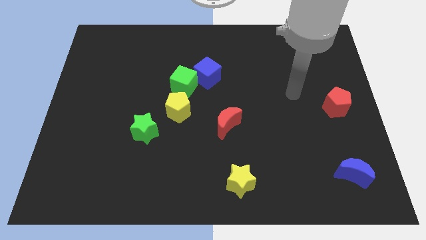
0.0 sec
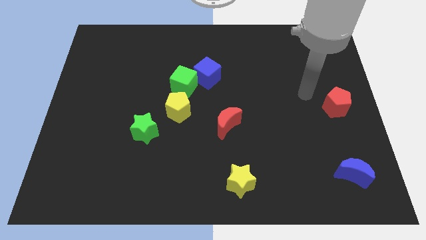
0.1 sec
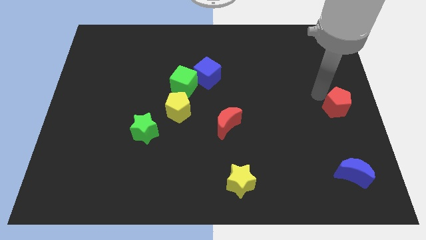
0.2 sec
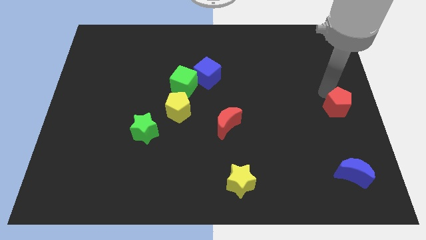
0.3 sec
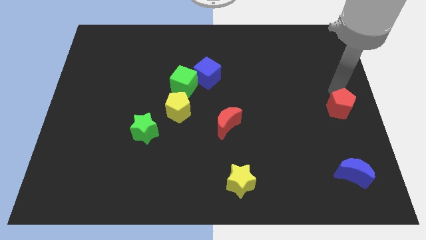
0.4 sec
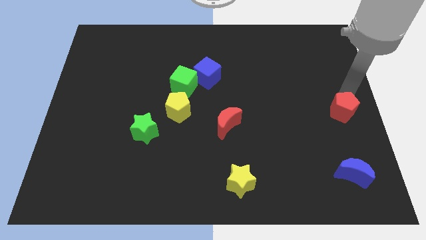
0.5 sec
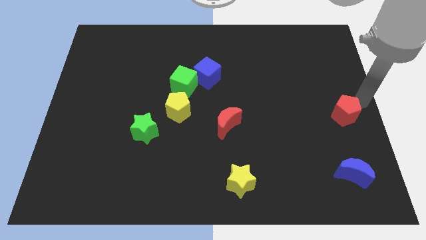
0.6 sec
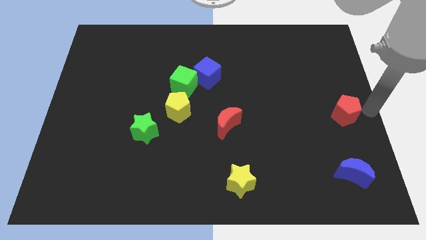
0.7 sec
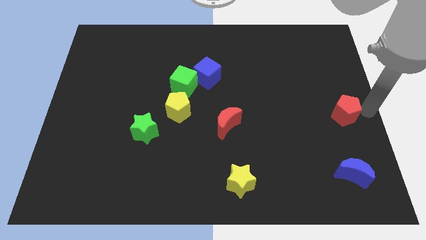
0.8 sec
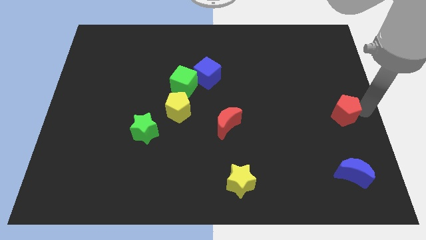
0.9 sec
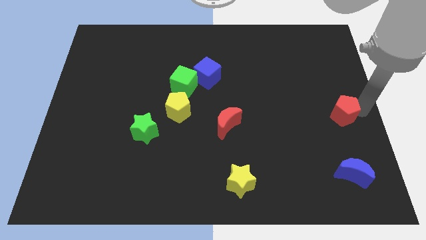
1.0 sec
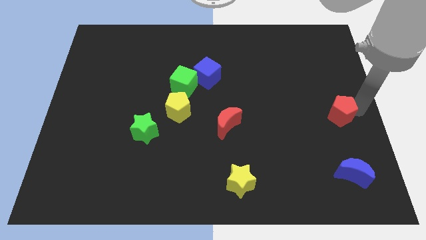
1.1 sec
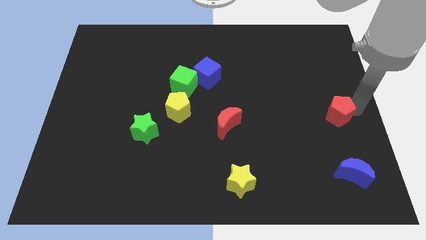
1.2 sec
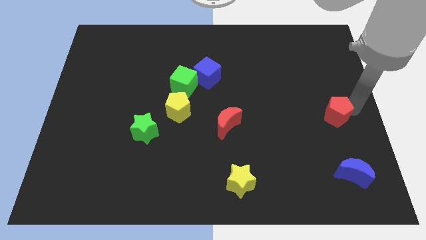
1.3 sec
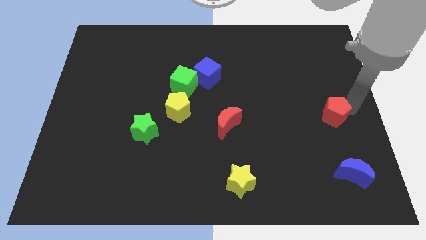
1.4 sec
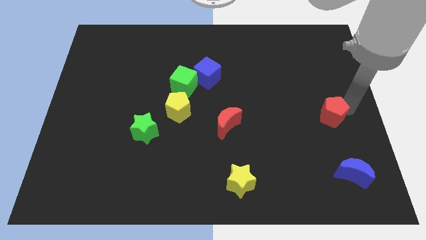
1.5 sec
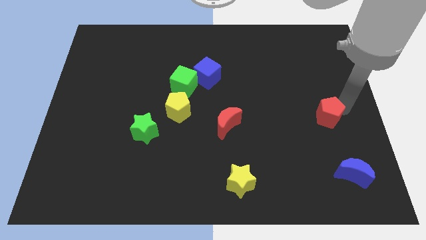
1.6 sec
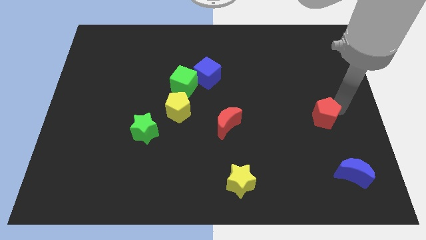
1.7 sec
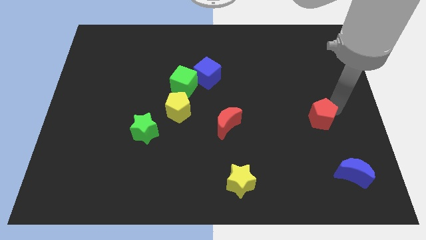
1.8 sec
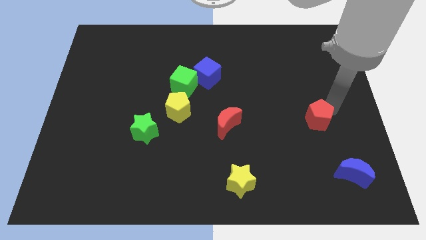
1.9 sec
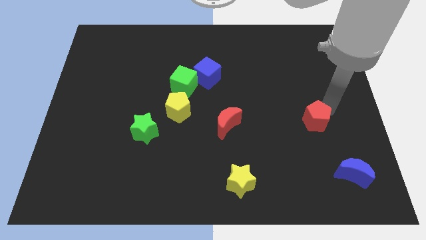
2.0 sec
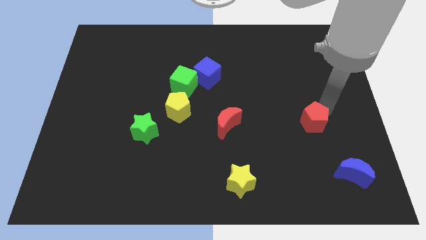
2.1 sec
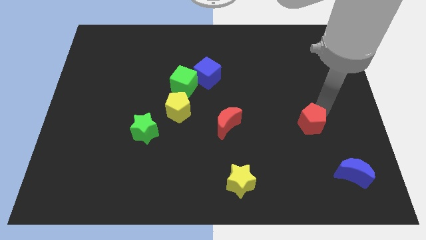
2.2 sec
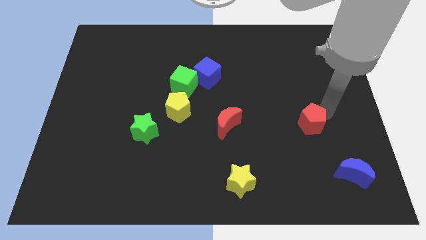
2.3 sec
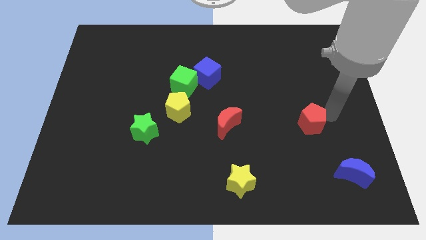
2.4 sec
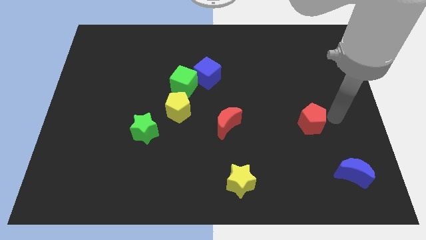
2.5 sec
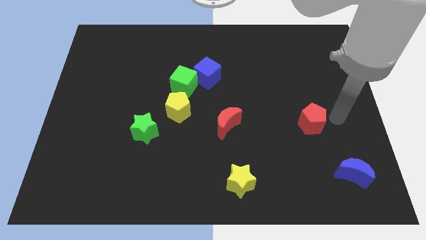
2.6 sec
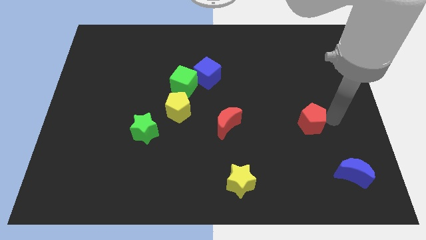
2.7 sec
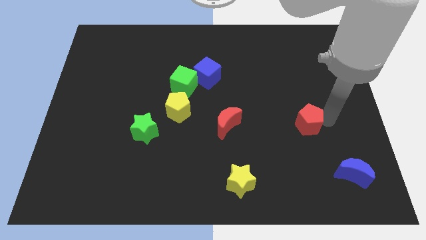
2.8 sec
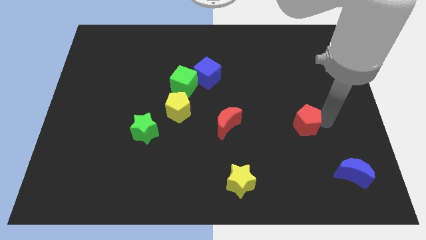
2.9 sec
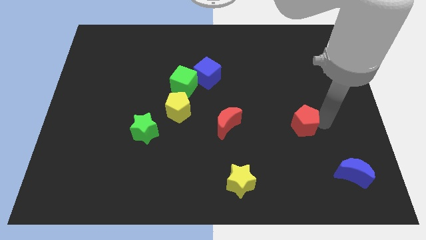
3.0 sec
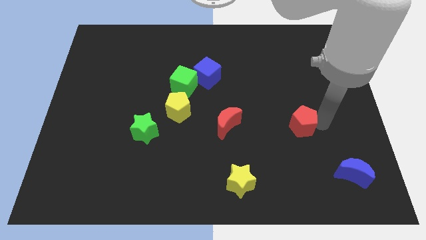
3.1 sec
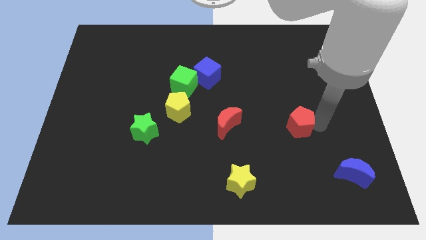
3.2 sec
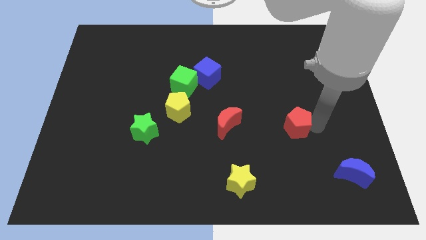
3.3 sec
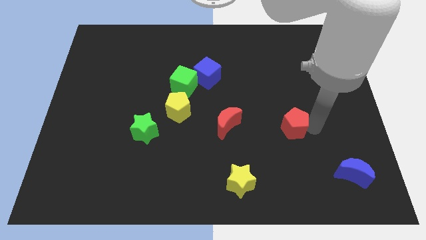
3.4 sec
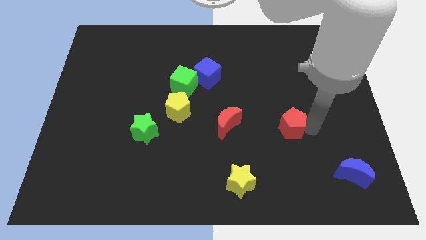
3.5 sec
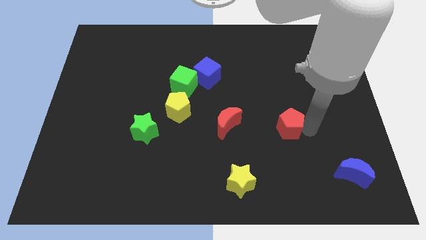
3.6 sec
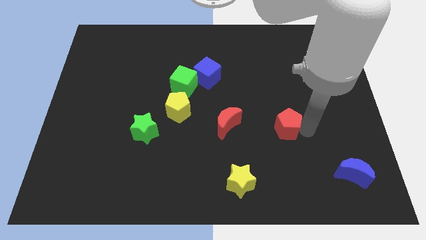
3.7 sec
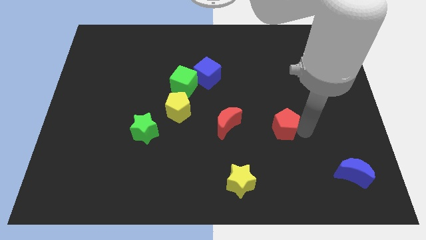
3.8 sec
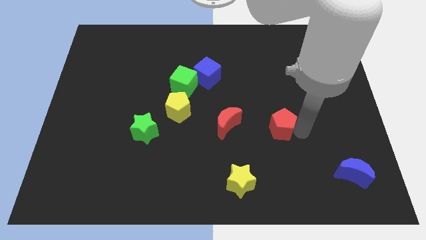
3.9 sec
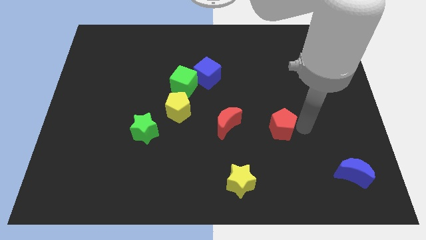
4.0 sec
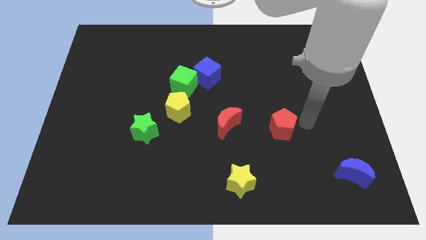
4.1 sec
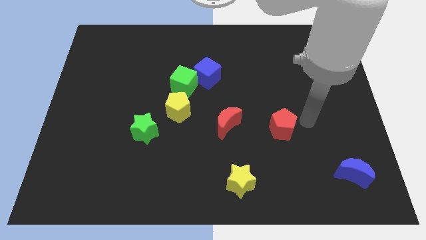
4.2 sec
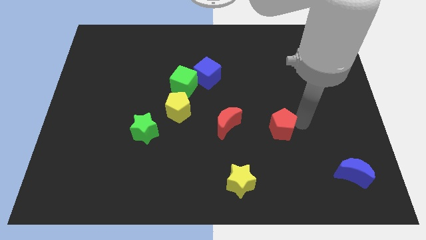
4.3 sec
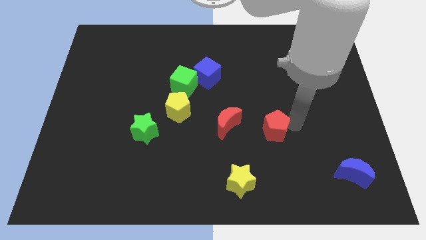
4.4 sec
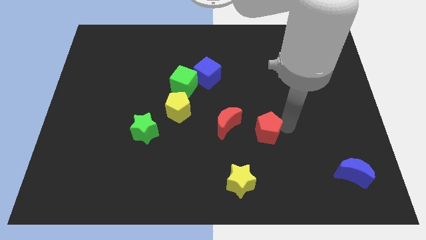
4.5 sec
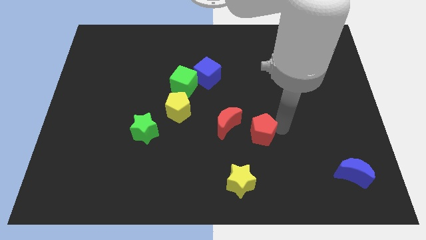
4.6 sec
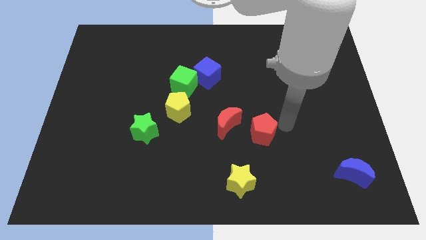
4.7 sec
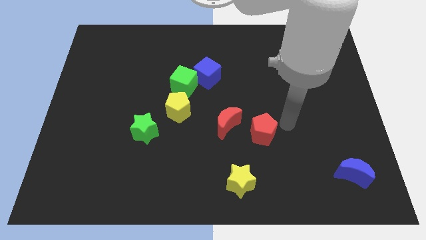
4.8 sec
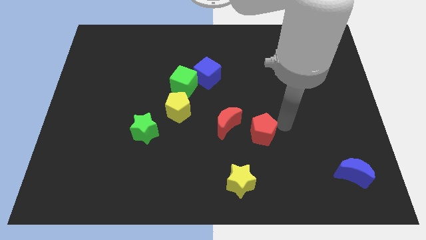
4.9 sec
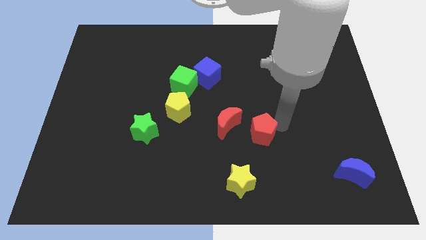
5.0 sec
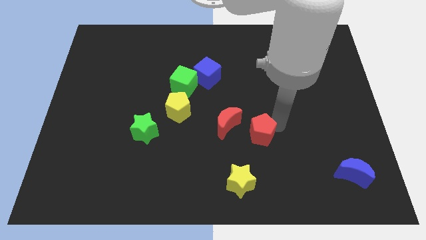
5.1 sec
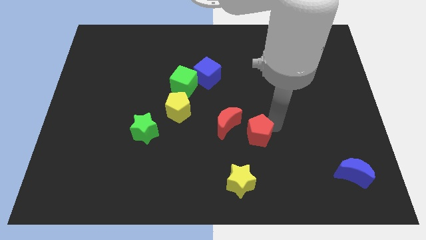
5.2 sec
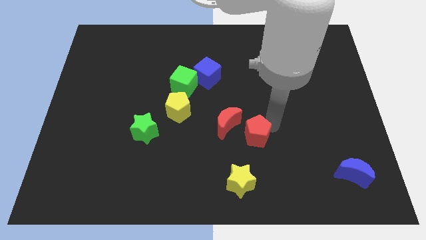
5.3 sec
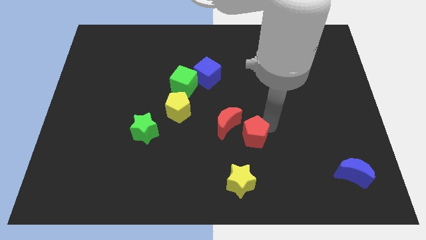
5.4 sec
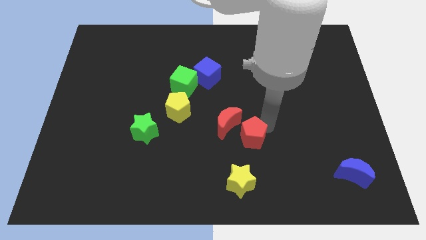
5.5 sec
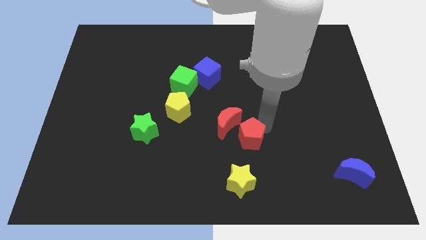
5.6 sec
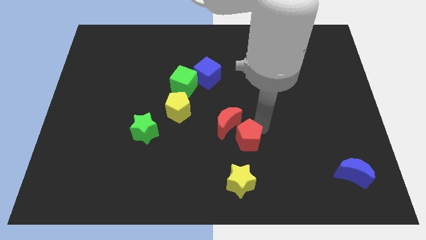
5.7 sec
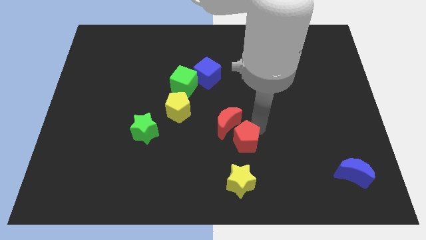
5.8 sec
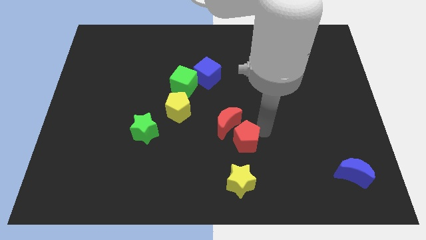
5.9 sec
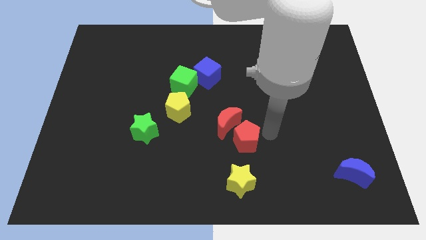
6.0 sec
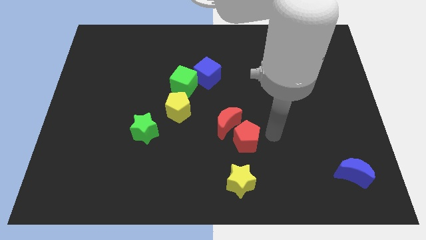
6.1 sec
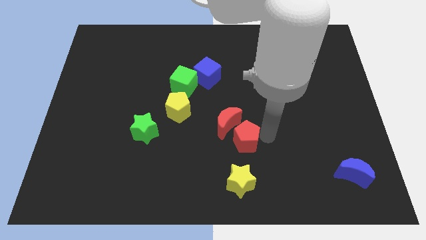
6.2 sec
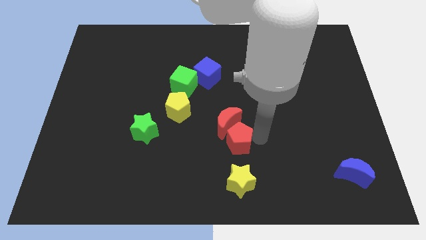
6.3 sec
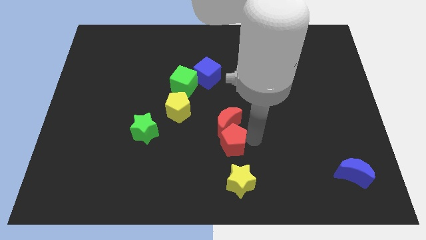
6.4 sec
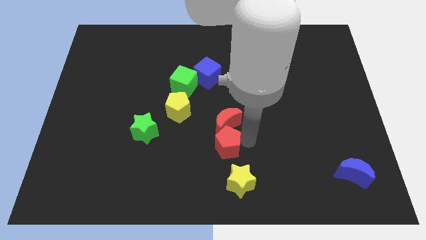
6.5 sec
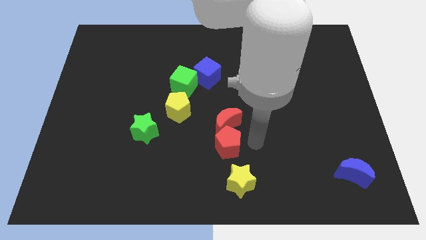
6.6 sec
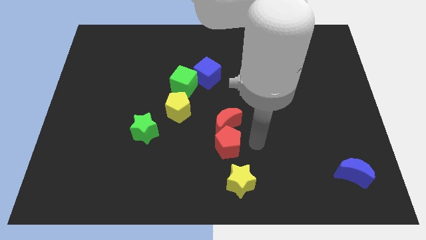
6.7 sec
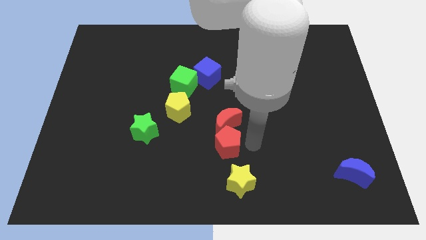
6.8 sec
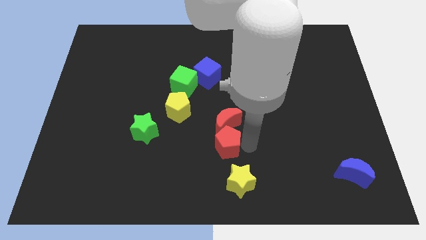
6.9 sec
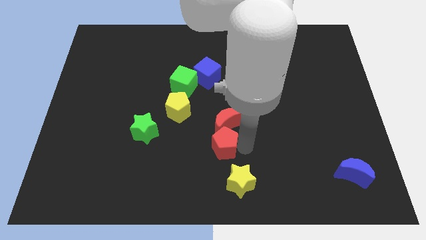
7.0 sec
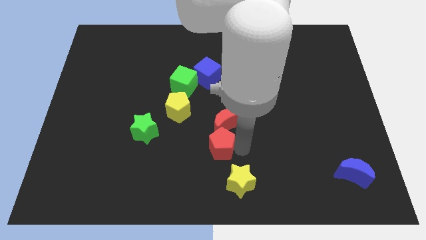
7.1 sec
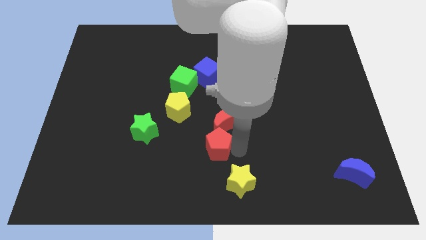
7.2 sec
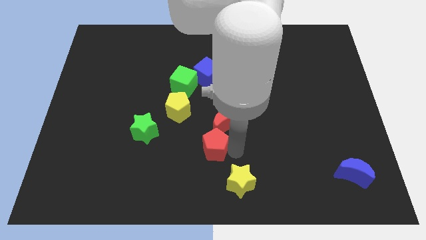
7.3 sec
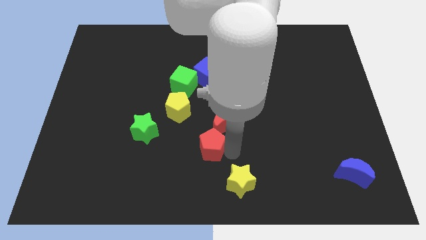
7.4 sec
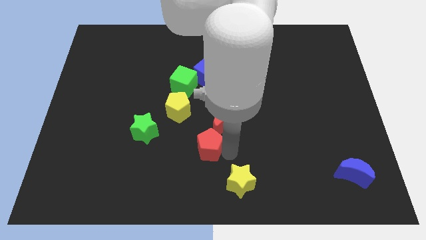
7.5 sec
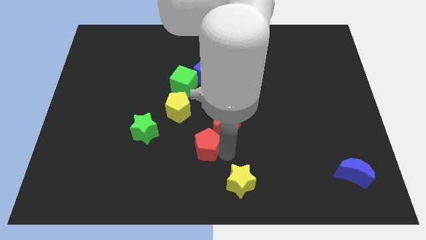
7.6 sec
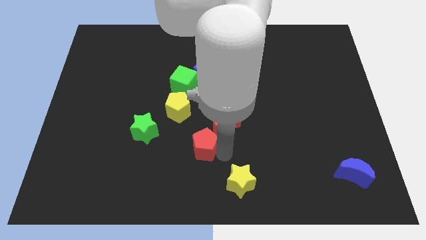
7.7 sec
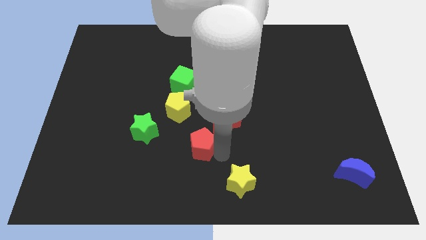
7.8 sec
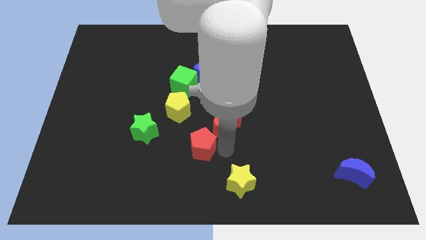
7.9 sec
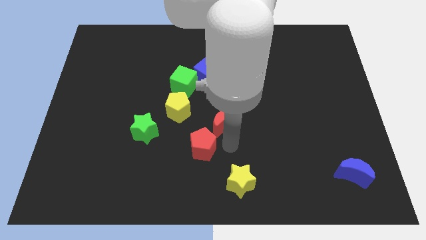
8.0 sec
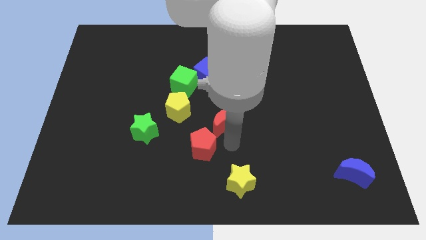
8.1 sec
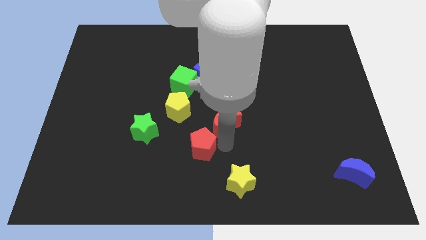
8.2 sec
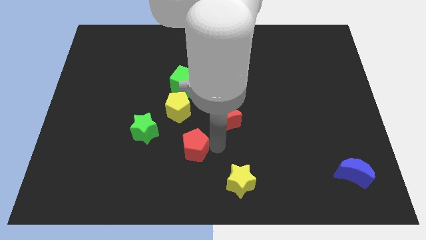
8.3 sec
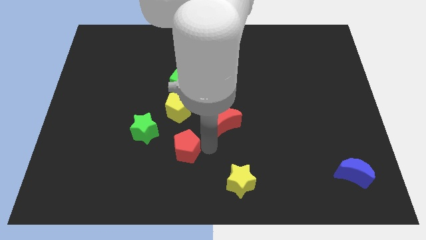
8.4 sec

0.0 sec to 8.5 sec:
put the red pentagon to the bottom right of the green star
